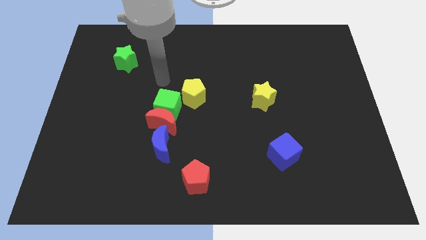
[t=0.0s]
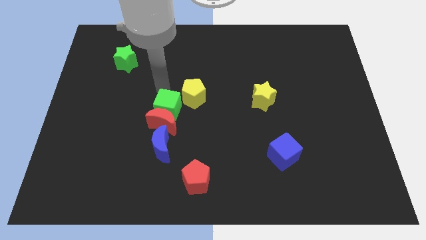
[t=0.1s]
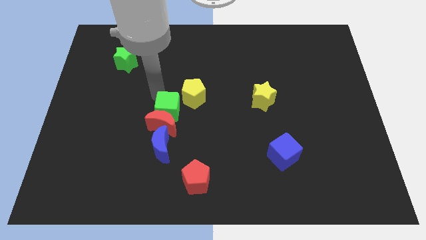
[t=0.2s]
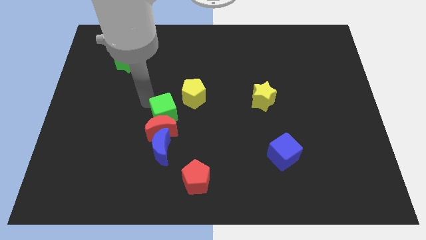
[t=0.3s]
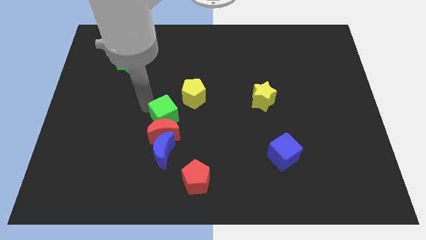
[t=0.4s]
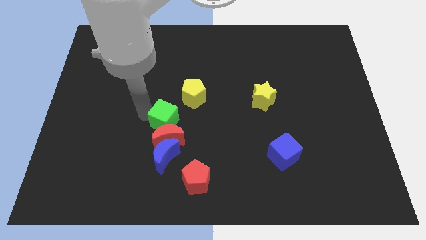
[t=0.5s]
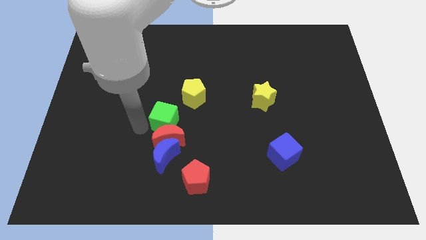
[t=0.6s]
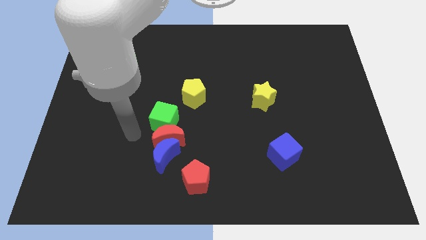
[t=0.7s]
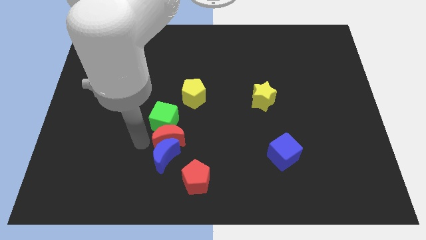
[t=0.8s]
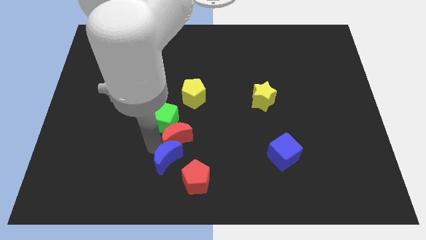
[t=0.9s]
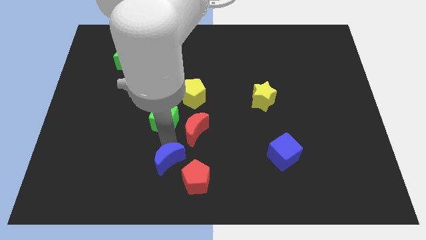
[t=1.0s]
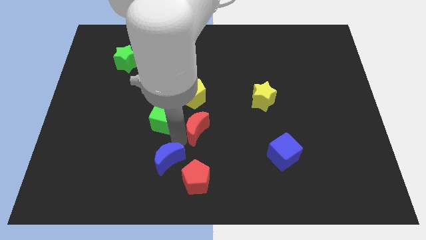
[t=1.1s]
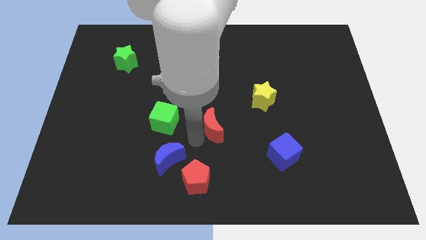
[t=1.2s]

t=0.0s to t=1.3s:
separate the red moon from the green cube and blue moon

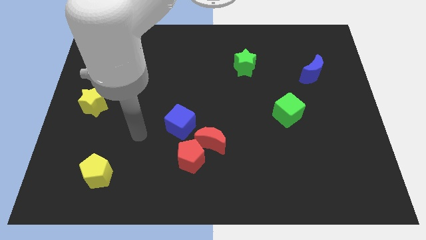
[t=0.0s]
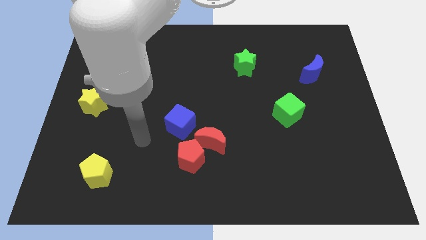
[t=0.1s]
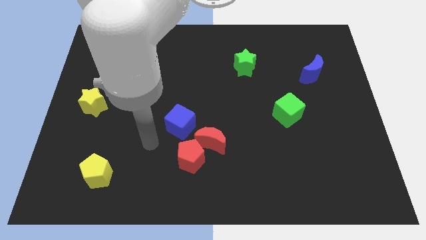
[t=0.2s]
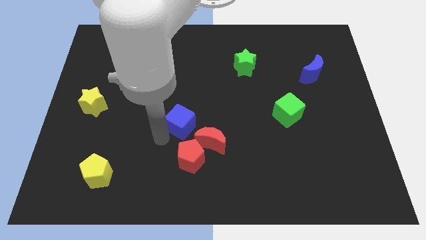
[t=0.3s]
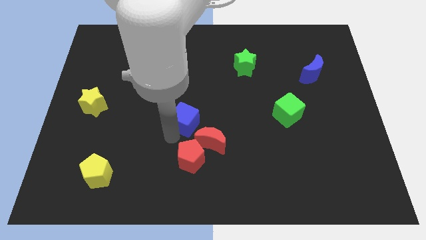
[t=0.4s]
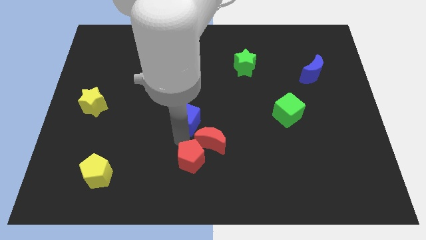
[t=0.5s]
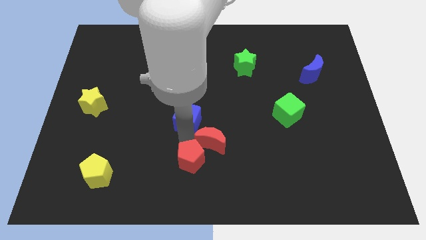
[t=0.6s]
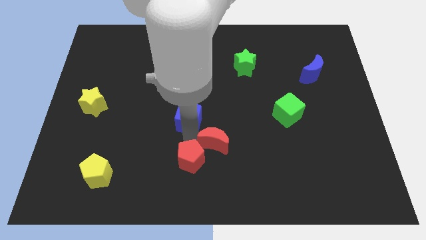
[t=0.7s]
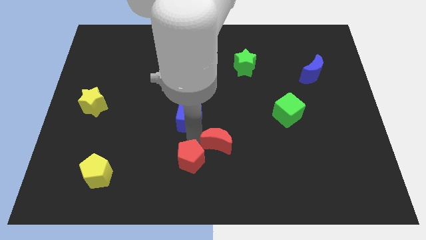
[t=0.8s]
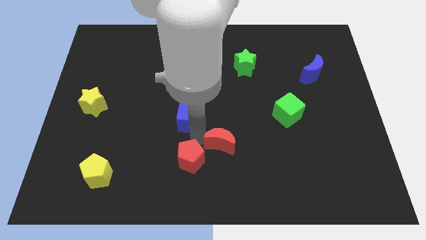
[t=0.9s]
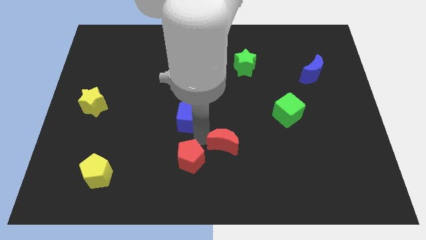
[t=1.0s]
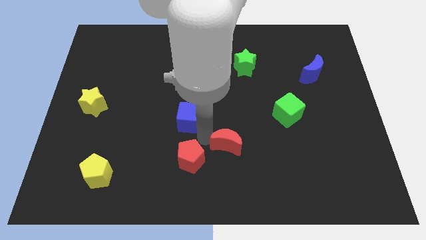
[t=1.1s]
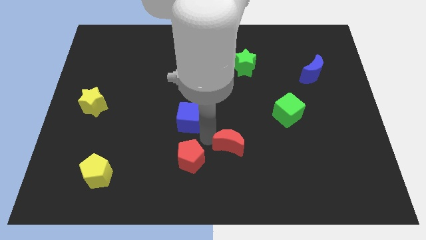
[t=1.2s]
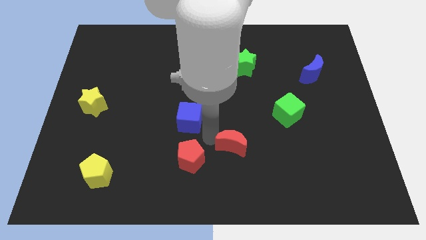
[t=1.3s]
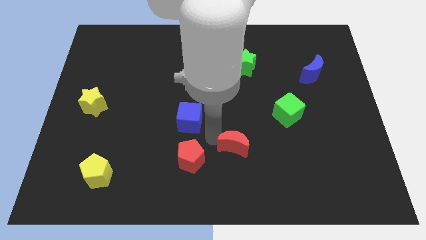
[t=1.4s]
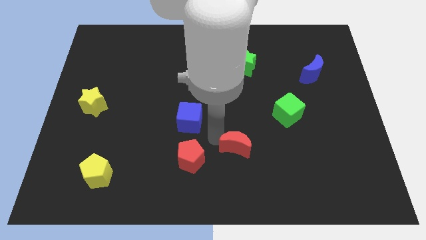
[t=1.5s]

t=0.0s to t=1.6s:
move the red moon away from the red pentagon and blue cube

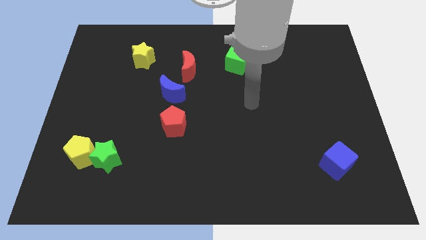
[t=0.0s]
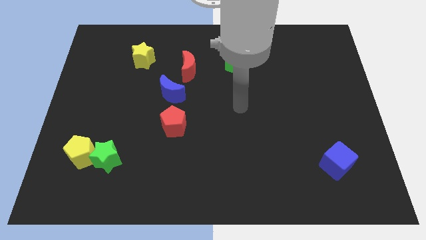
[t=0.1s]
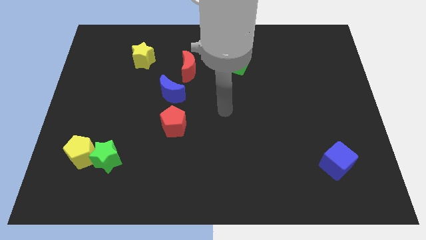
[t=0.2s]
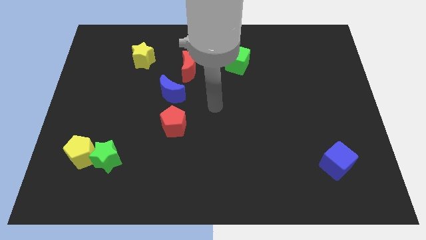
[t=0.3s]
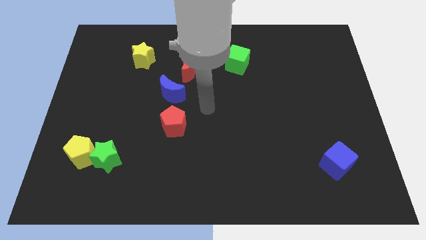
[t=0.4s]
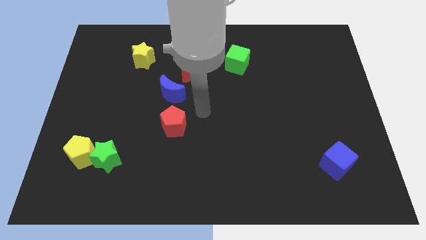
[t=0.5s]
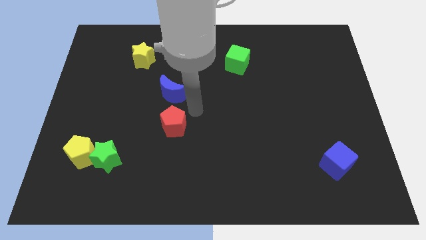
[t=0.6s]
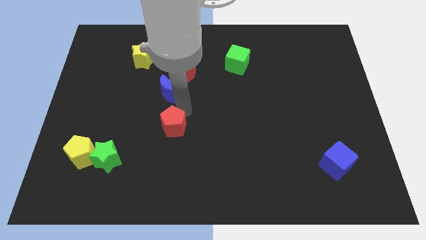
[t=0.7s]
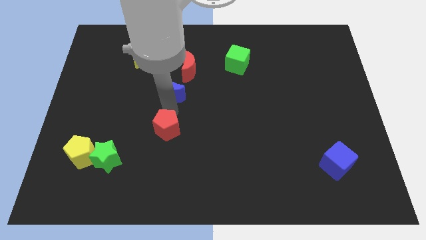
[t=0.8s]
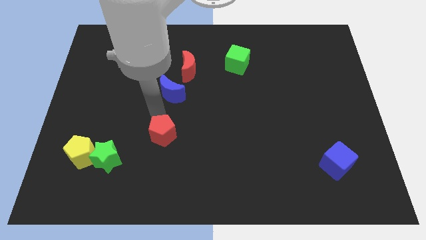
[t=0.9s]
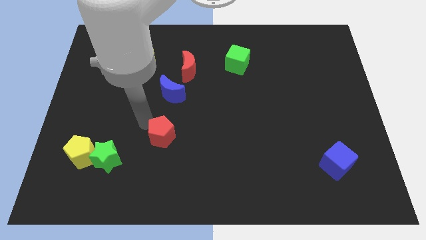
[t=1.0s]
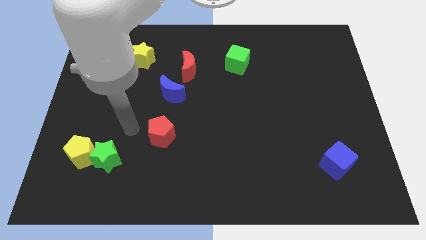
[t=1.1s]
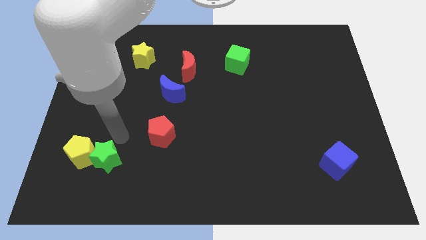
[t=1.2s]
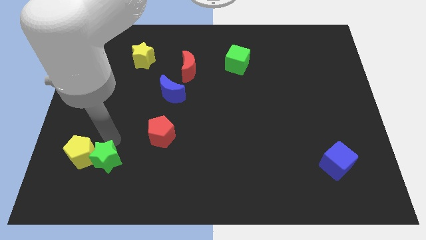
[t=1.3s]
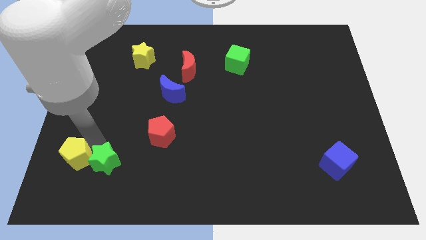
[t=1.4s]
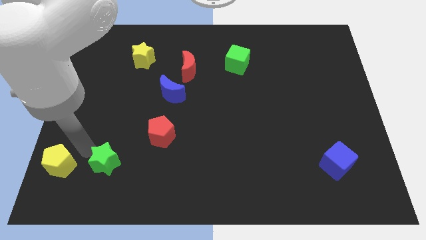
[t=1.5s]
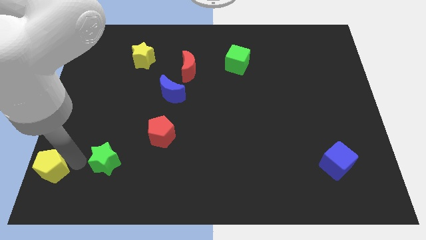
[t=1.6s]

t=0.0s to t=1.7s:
separate the green star from the yellow pentagon

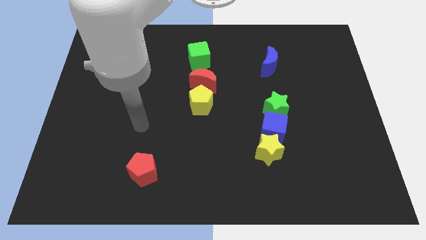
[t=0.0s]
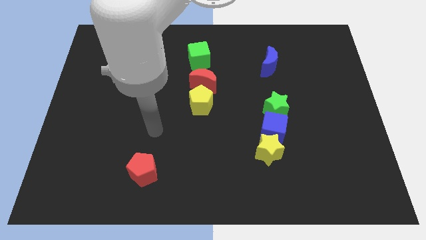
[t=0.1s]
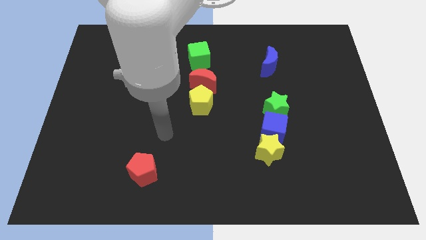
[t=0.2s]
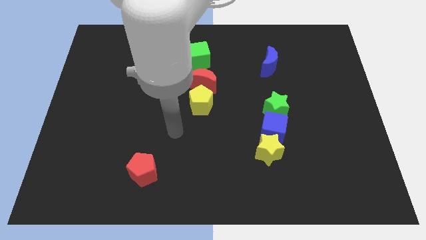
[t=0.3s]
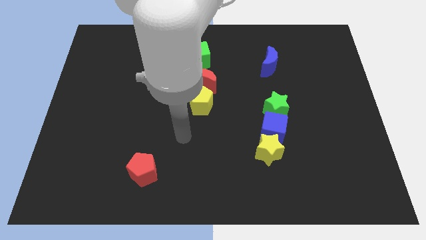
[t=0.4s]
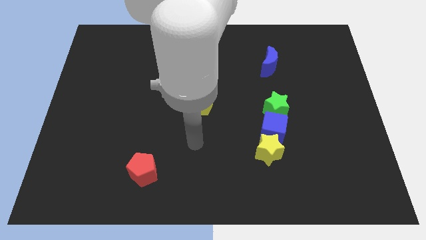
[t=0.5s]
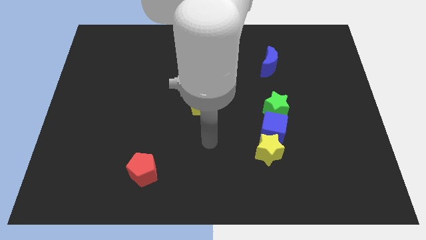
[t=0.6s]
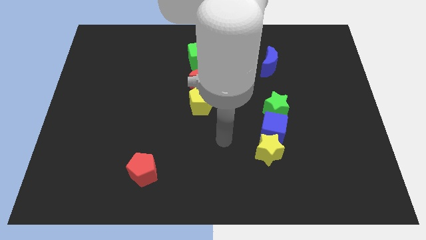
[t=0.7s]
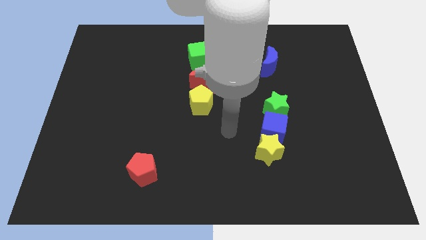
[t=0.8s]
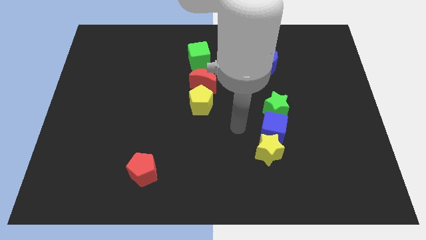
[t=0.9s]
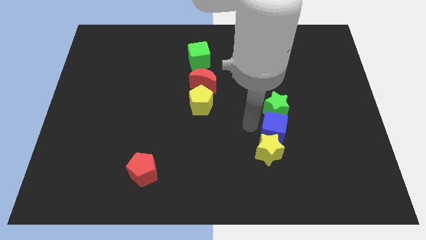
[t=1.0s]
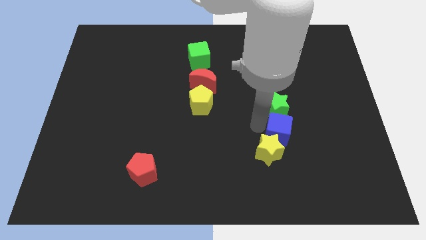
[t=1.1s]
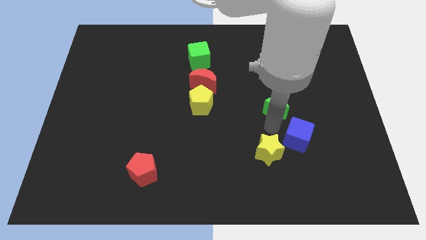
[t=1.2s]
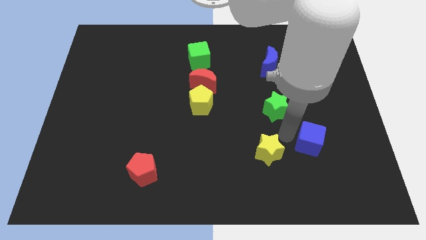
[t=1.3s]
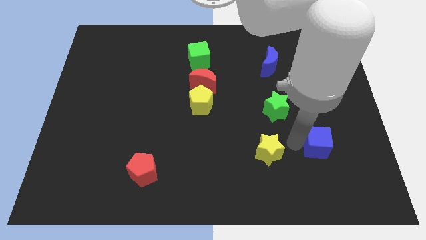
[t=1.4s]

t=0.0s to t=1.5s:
separate the yellow star from the blue cube

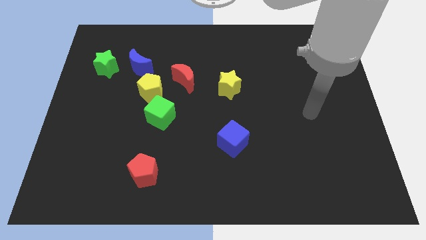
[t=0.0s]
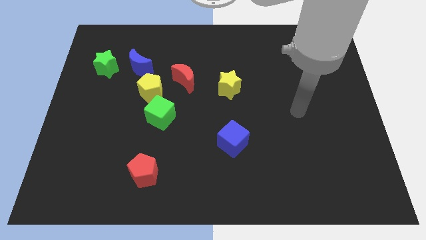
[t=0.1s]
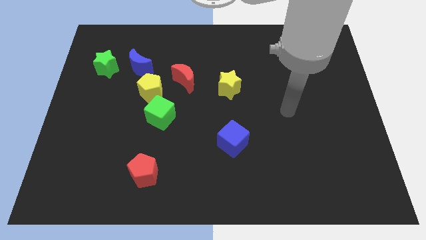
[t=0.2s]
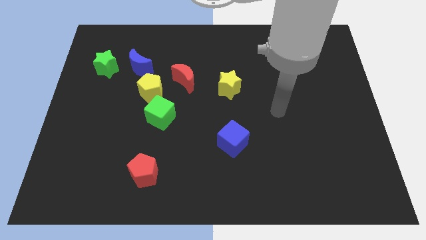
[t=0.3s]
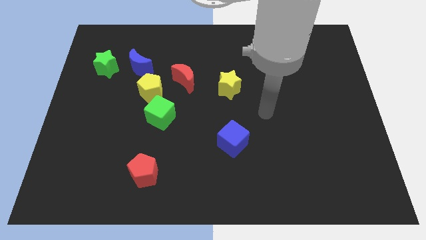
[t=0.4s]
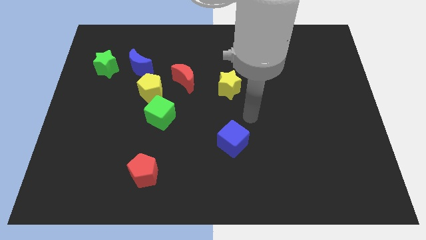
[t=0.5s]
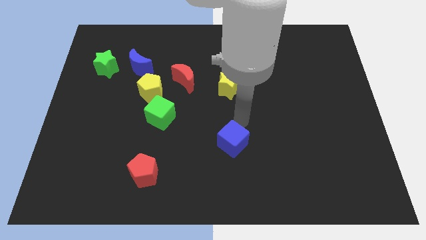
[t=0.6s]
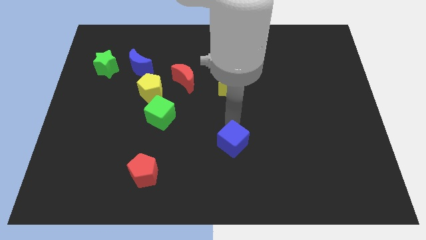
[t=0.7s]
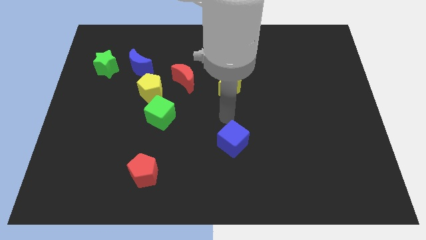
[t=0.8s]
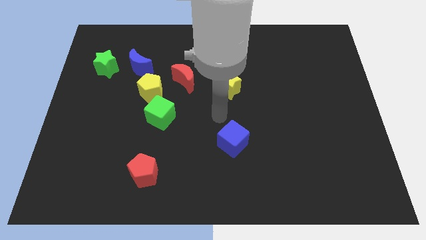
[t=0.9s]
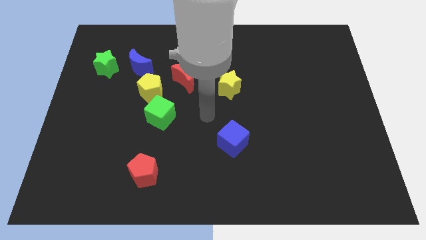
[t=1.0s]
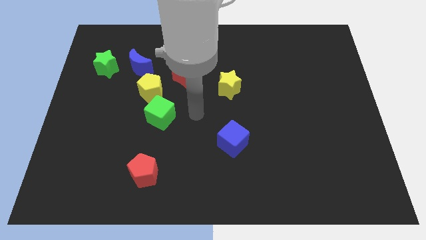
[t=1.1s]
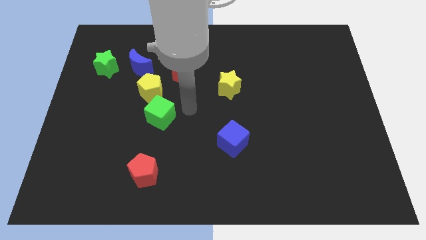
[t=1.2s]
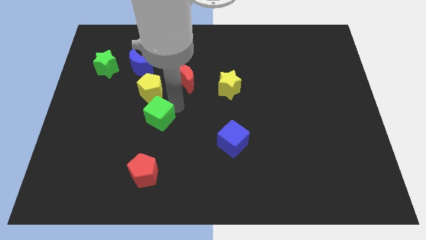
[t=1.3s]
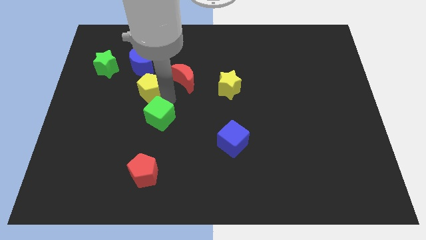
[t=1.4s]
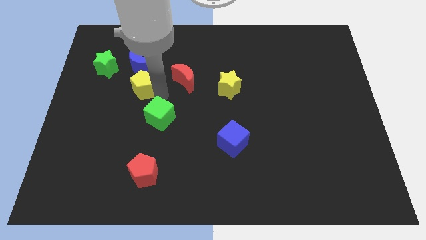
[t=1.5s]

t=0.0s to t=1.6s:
separate the green cube from the yellow pentagon

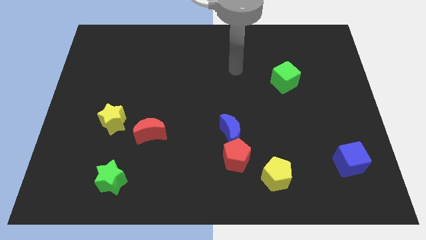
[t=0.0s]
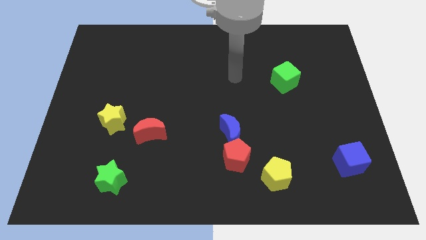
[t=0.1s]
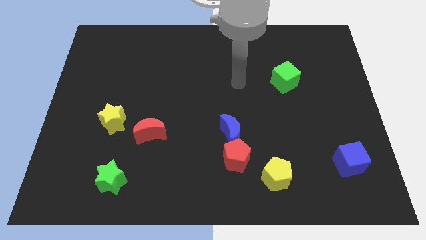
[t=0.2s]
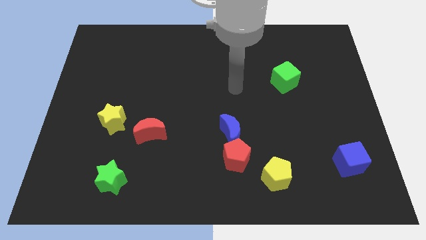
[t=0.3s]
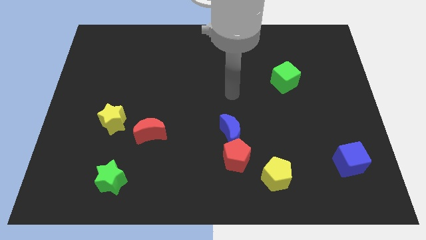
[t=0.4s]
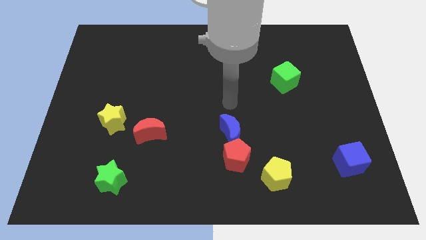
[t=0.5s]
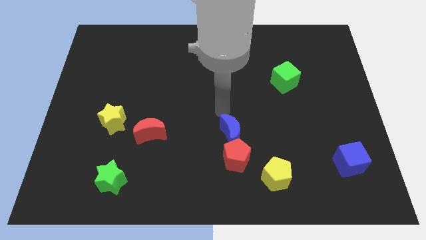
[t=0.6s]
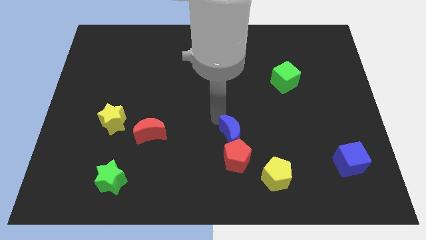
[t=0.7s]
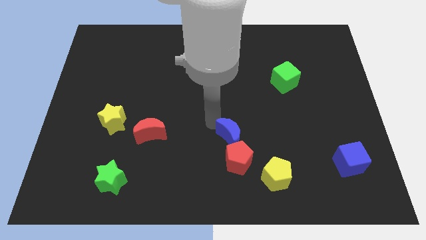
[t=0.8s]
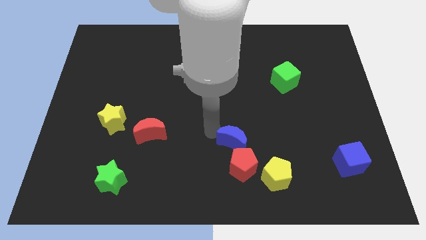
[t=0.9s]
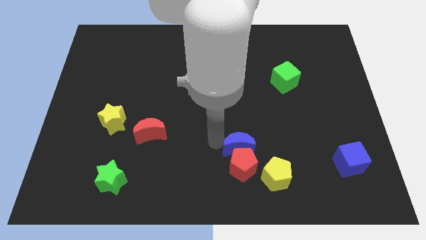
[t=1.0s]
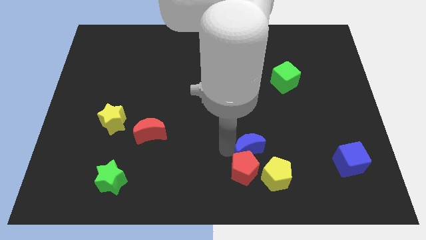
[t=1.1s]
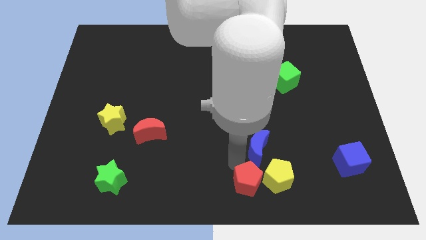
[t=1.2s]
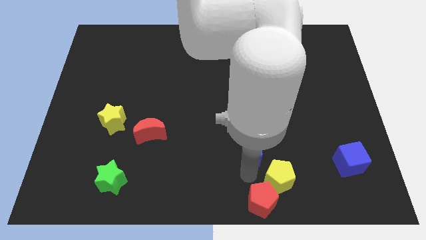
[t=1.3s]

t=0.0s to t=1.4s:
pull the blue moon apart from the red pentagon

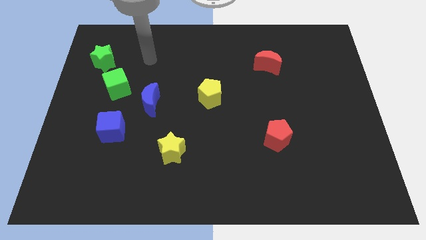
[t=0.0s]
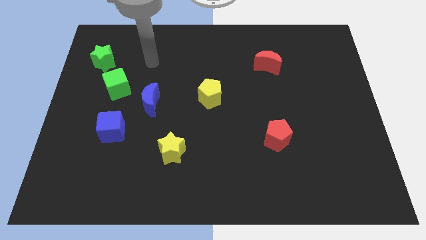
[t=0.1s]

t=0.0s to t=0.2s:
pull the blue moon apart from the green cube
